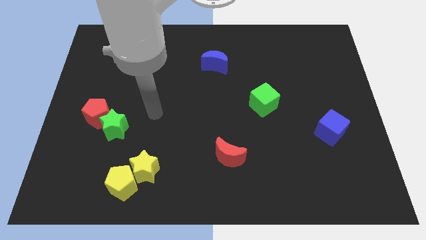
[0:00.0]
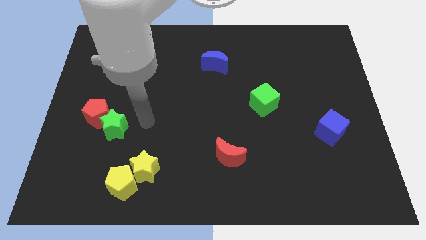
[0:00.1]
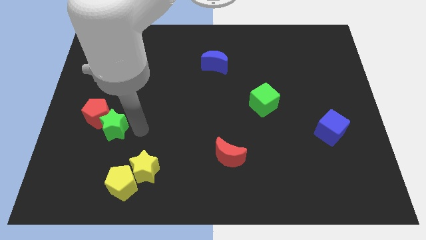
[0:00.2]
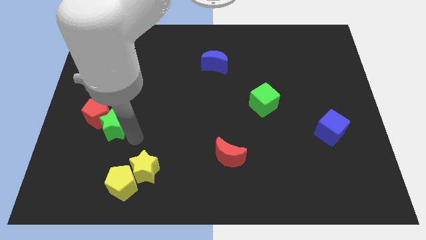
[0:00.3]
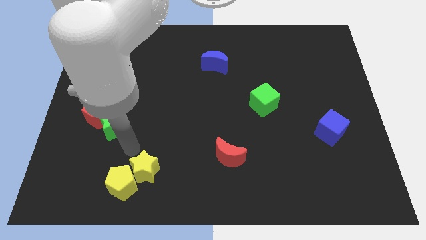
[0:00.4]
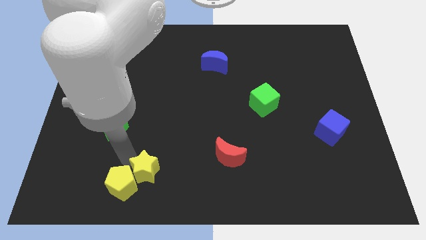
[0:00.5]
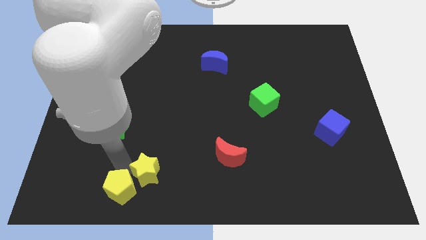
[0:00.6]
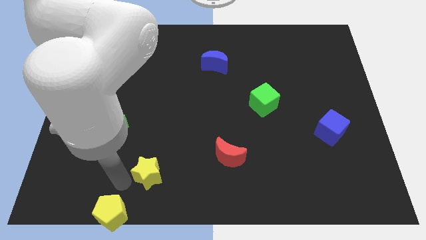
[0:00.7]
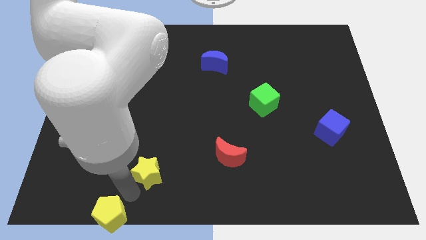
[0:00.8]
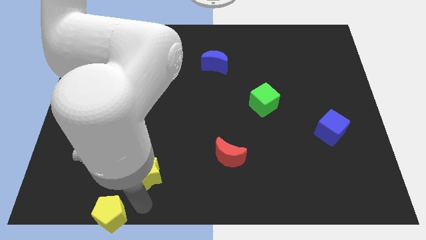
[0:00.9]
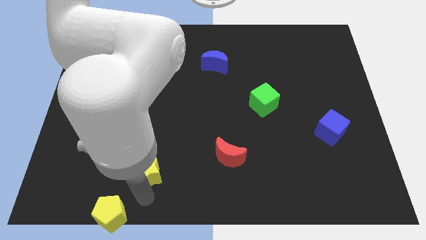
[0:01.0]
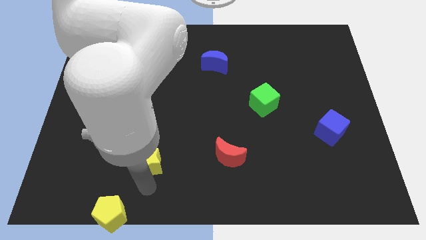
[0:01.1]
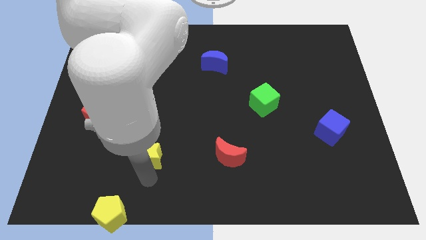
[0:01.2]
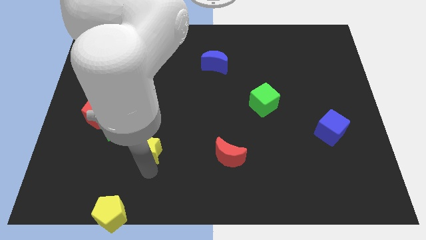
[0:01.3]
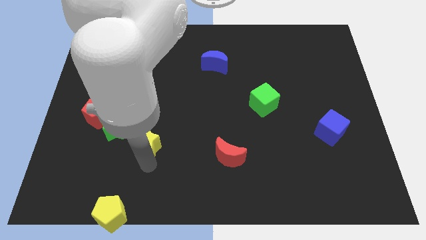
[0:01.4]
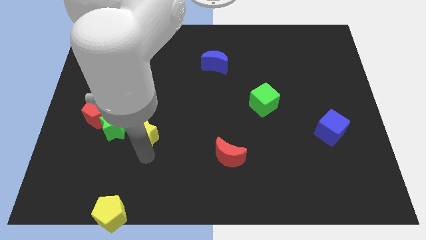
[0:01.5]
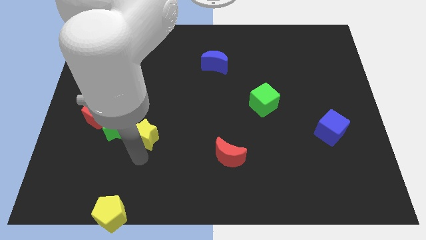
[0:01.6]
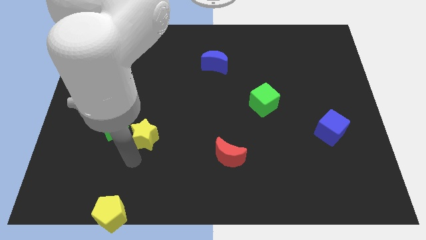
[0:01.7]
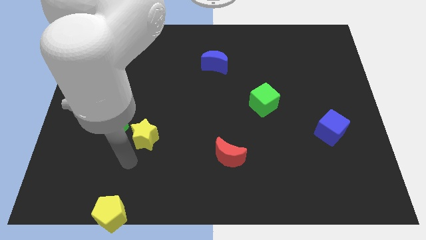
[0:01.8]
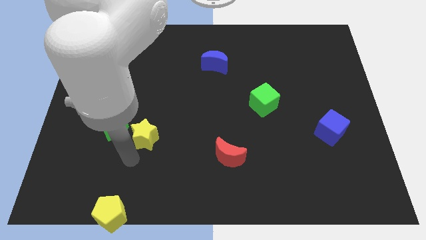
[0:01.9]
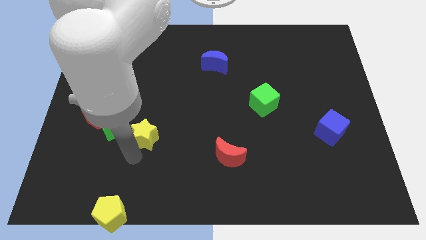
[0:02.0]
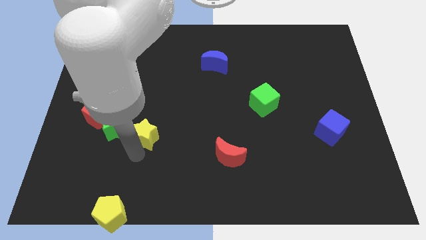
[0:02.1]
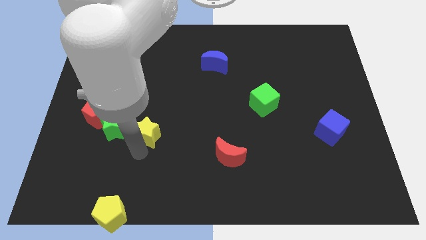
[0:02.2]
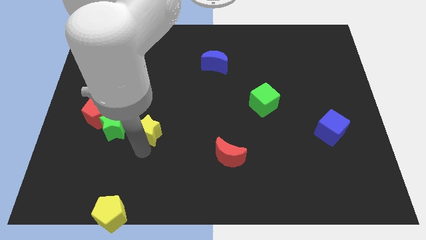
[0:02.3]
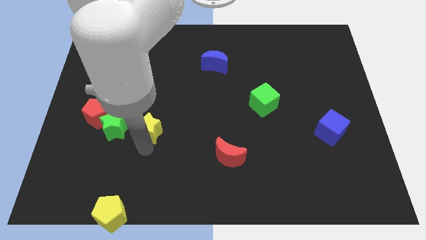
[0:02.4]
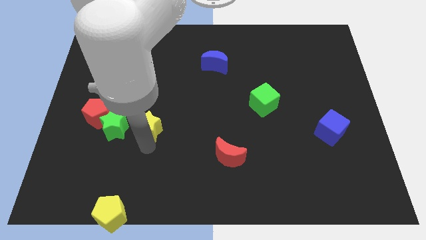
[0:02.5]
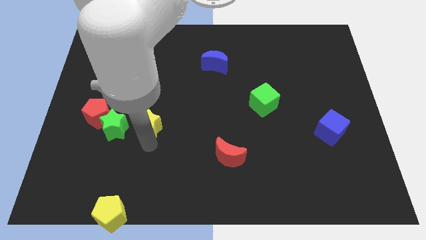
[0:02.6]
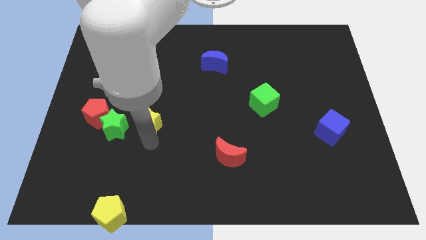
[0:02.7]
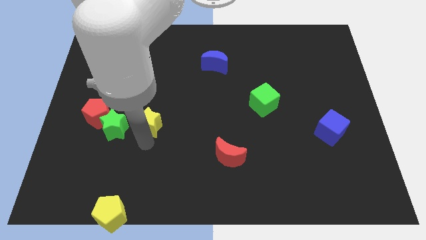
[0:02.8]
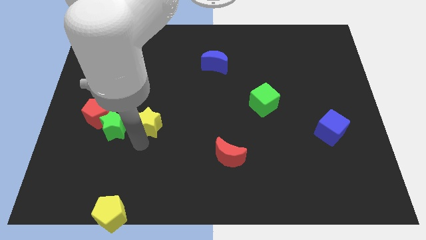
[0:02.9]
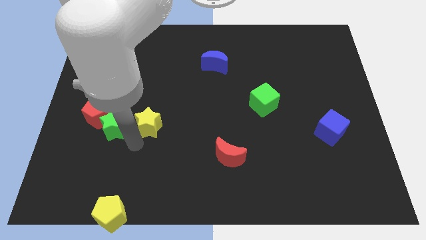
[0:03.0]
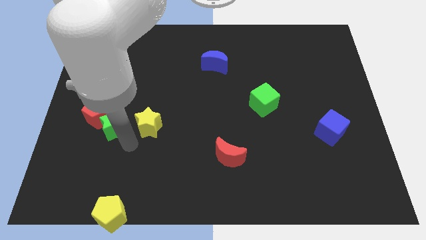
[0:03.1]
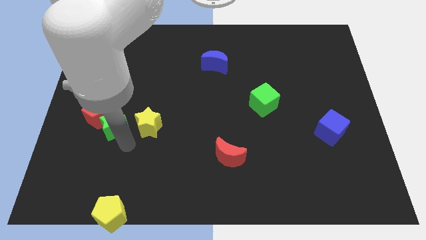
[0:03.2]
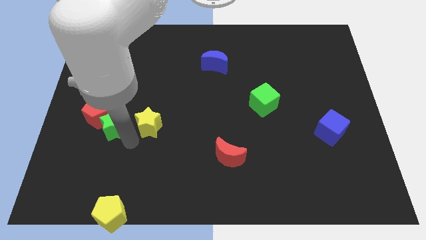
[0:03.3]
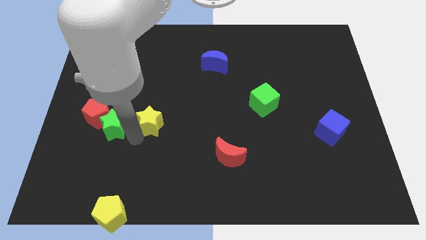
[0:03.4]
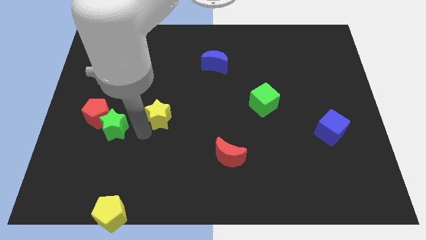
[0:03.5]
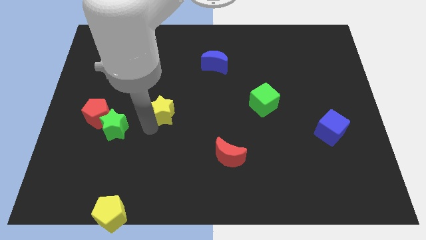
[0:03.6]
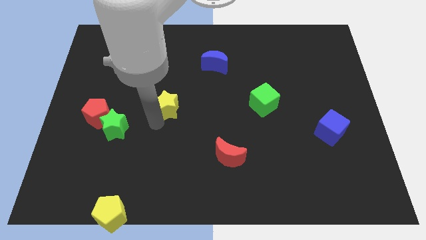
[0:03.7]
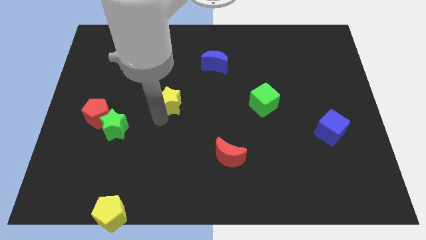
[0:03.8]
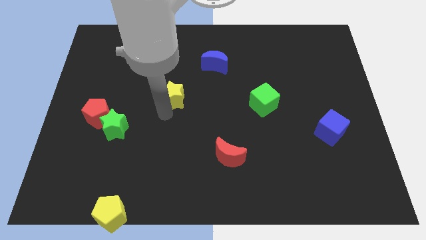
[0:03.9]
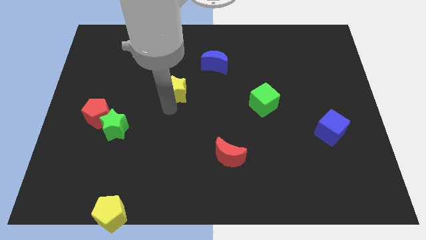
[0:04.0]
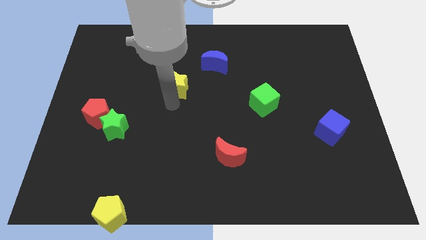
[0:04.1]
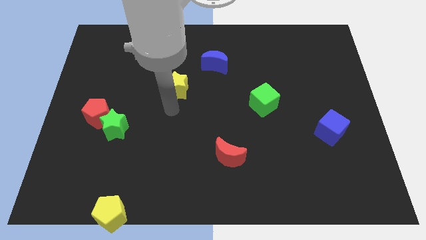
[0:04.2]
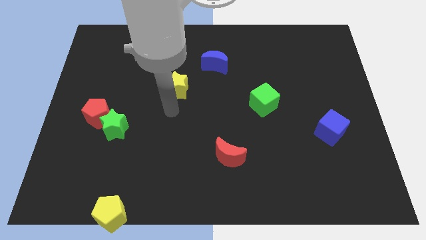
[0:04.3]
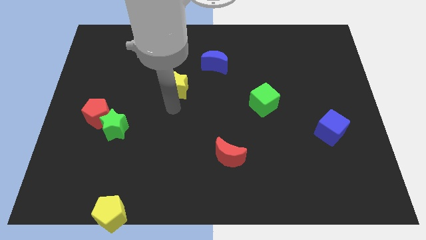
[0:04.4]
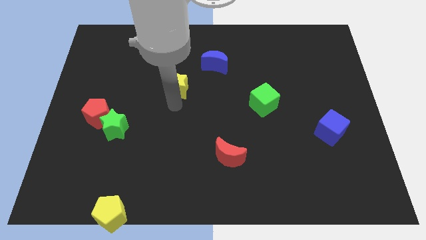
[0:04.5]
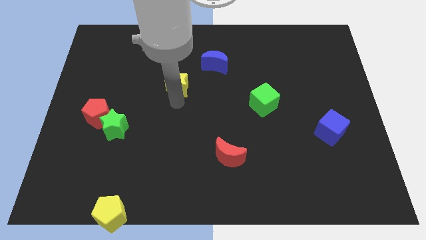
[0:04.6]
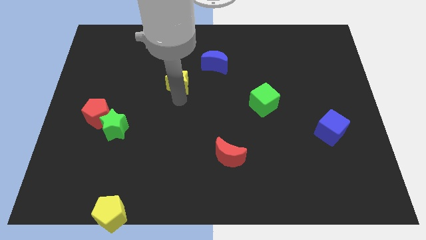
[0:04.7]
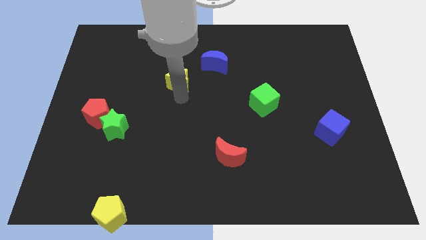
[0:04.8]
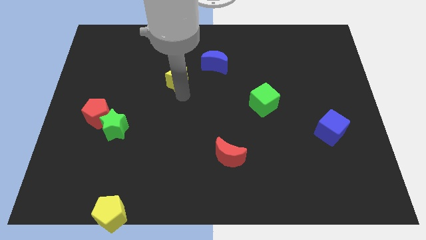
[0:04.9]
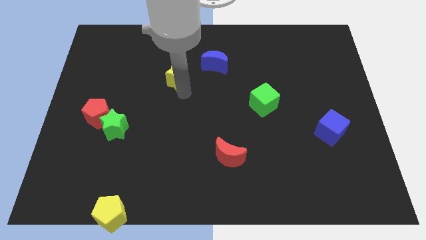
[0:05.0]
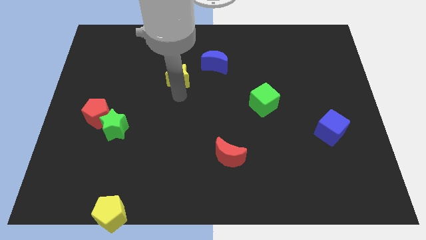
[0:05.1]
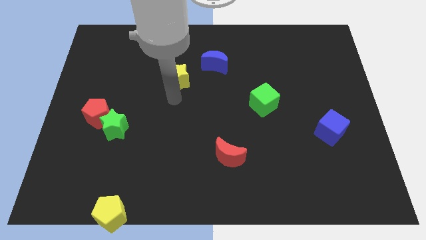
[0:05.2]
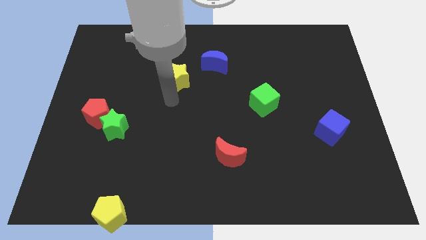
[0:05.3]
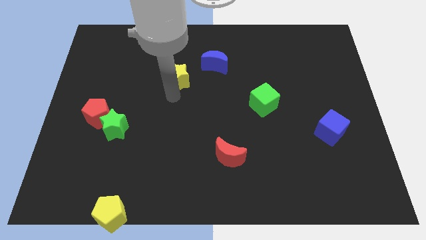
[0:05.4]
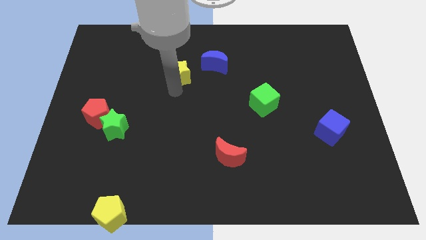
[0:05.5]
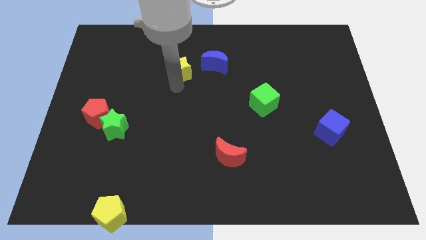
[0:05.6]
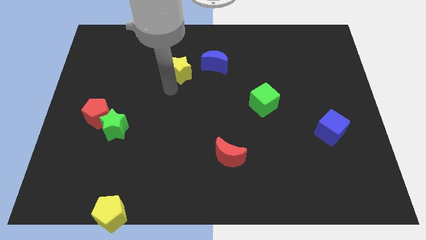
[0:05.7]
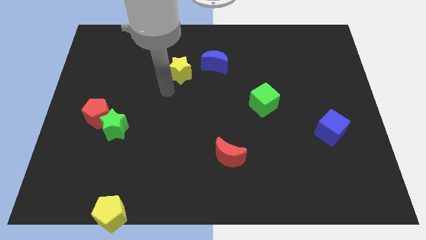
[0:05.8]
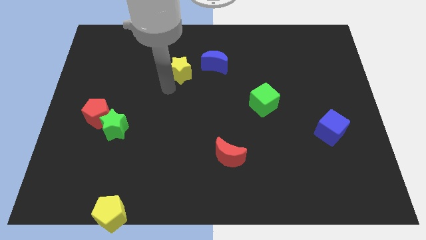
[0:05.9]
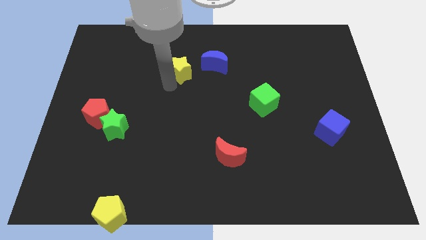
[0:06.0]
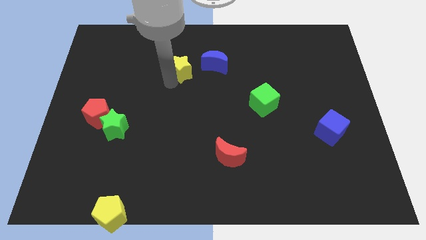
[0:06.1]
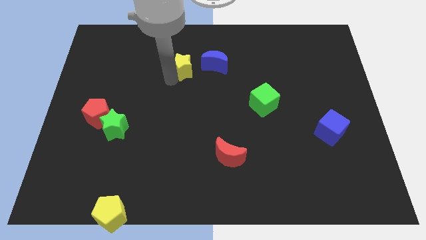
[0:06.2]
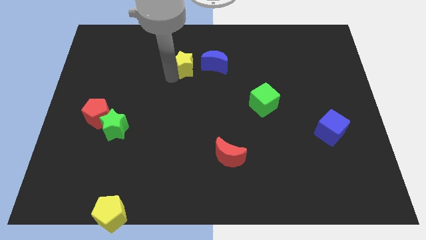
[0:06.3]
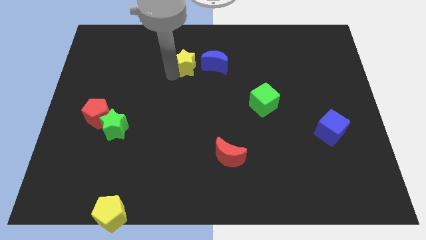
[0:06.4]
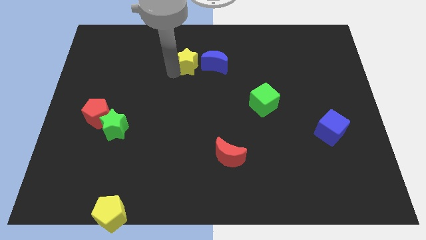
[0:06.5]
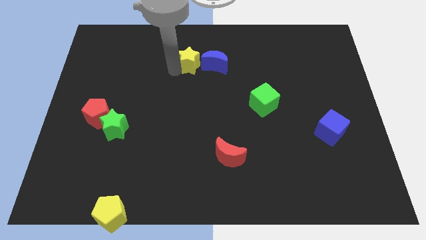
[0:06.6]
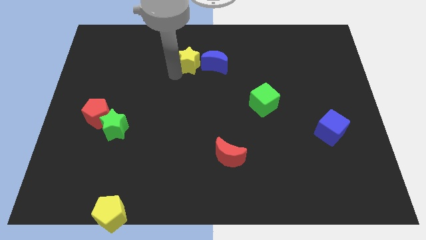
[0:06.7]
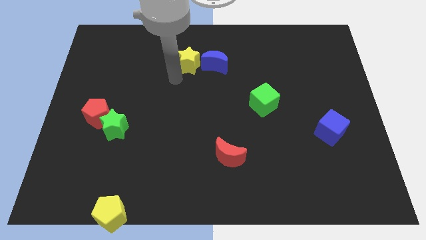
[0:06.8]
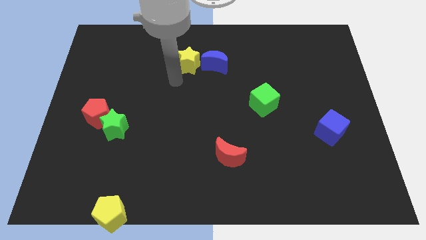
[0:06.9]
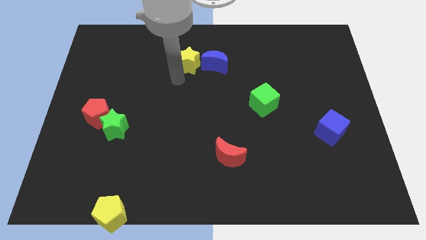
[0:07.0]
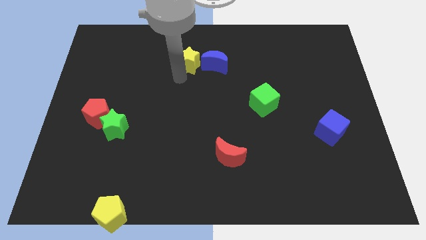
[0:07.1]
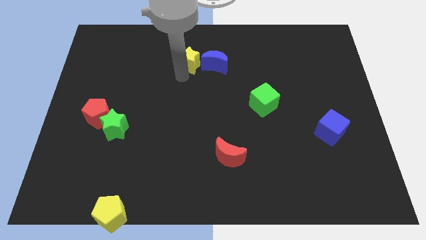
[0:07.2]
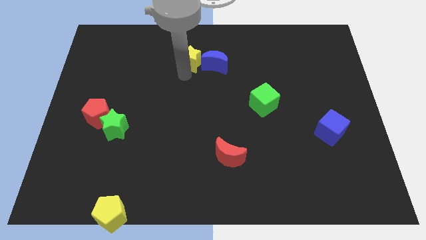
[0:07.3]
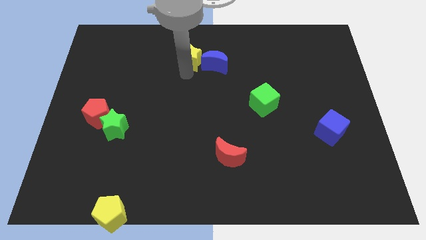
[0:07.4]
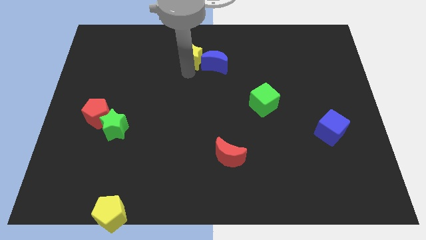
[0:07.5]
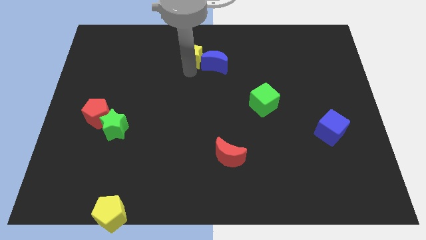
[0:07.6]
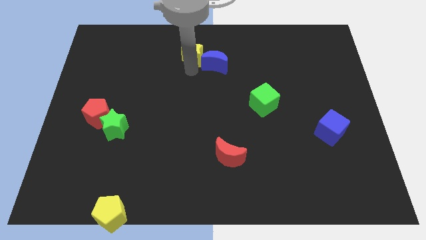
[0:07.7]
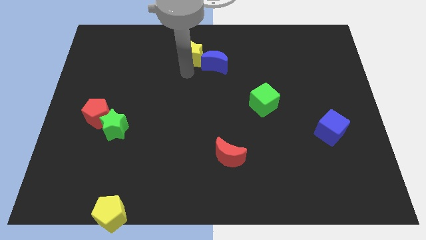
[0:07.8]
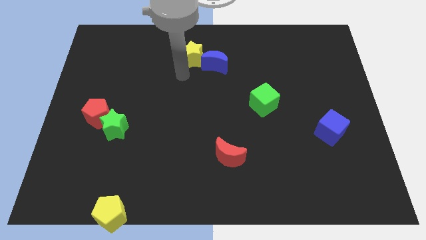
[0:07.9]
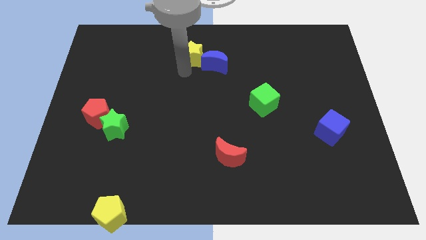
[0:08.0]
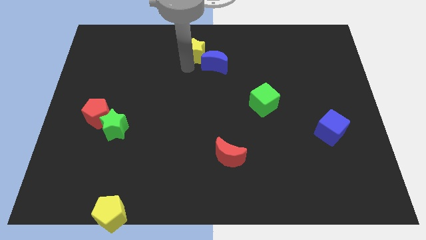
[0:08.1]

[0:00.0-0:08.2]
slide the yellow star to the top
